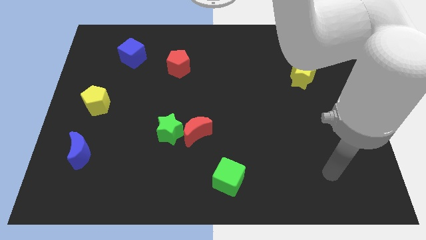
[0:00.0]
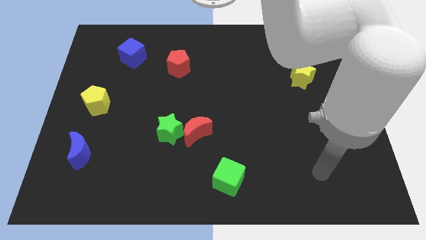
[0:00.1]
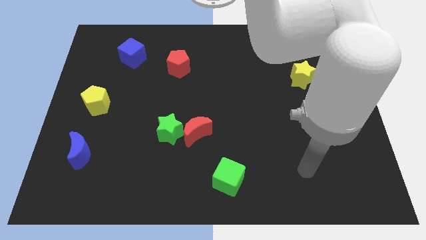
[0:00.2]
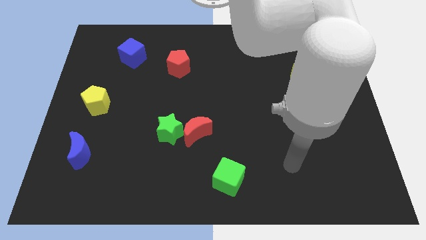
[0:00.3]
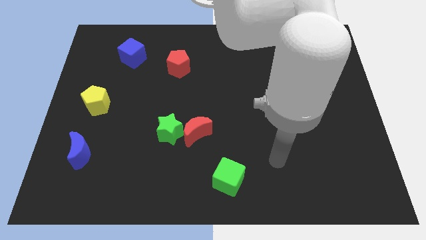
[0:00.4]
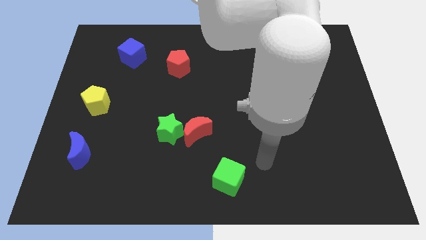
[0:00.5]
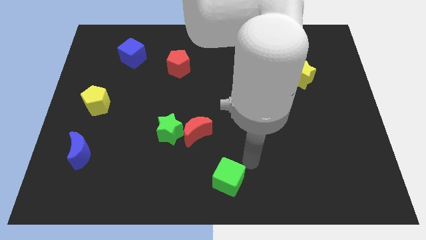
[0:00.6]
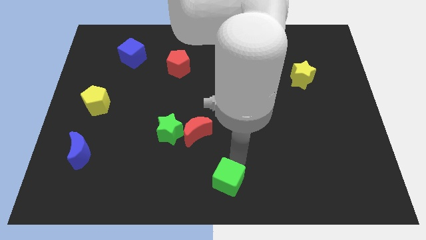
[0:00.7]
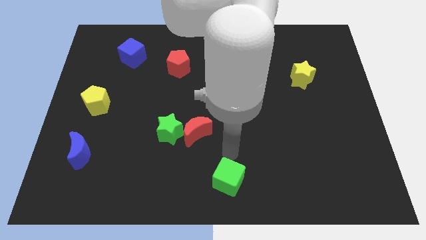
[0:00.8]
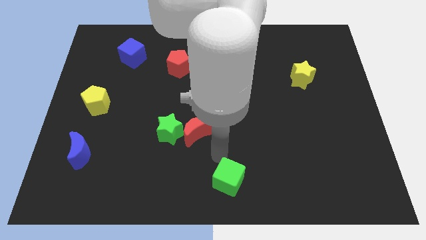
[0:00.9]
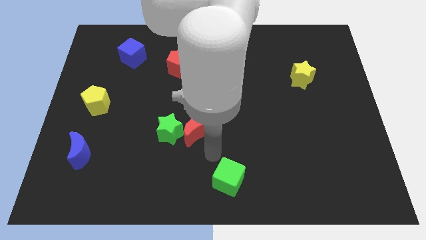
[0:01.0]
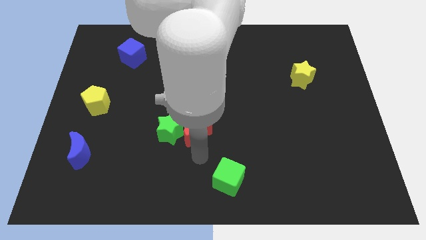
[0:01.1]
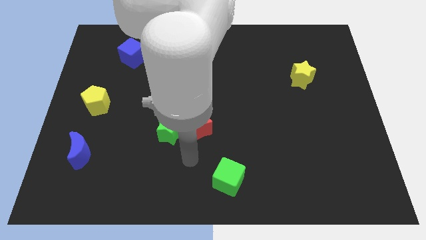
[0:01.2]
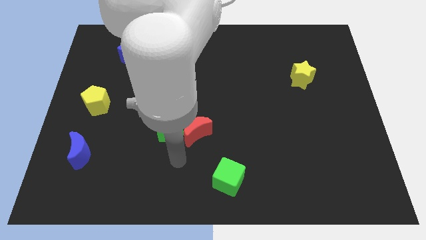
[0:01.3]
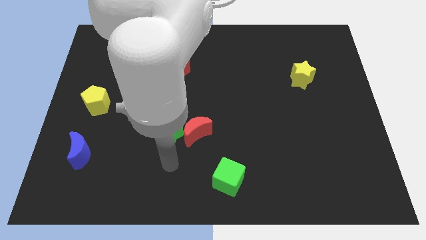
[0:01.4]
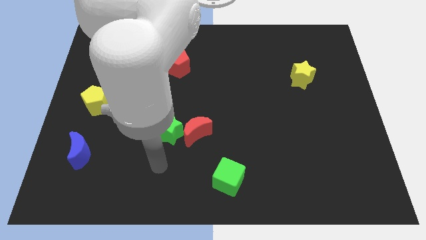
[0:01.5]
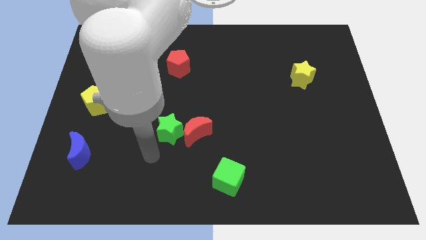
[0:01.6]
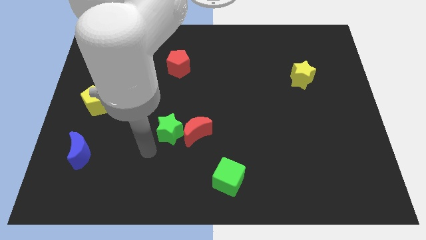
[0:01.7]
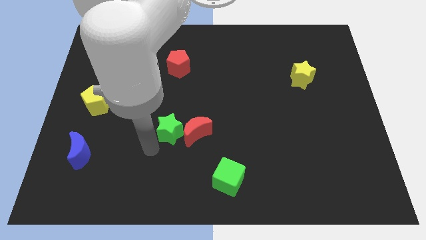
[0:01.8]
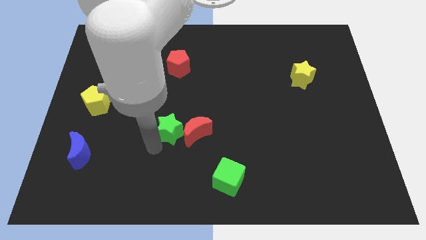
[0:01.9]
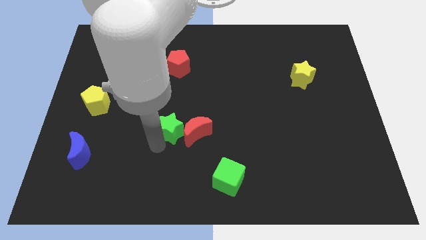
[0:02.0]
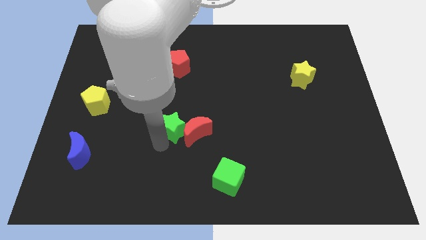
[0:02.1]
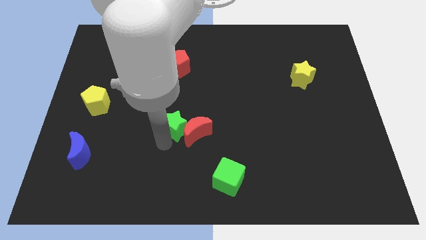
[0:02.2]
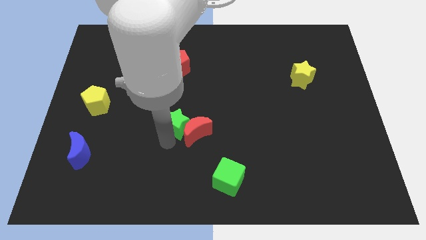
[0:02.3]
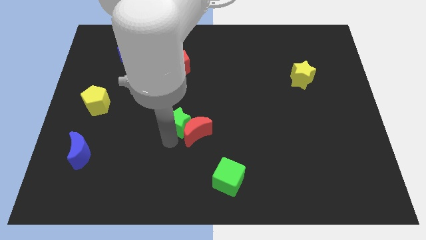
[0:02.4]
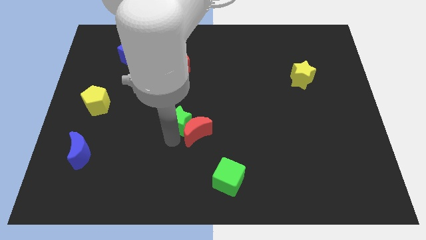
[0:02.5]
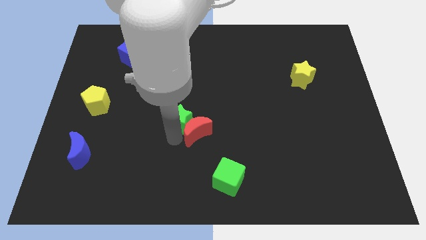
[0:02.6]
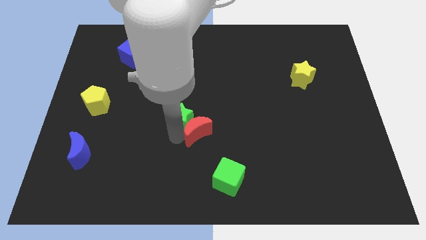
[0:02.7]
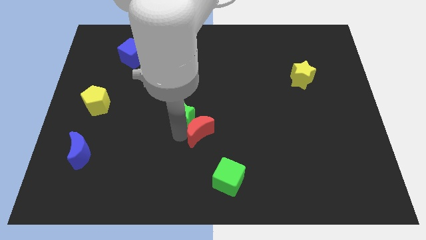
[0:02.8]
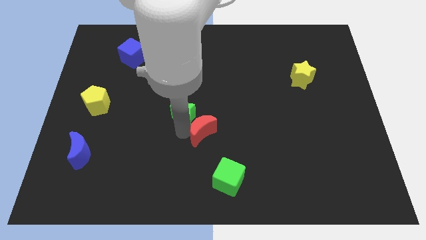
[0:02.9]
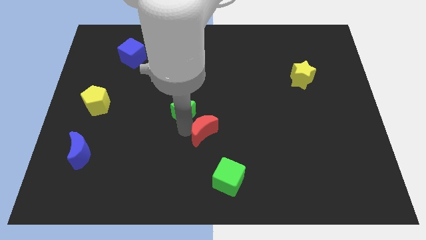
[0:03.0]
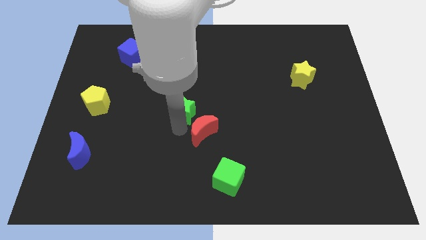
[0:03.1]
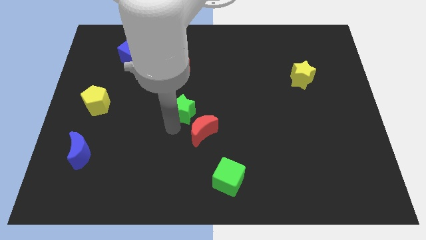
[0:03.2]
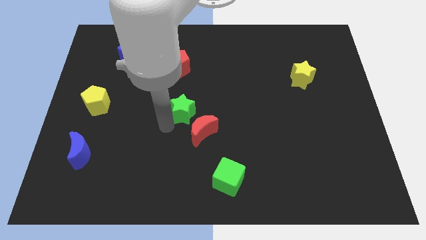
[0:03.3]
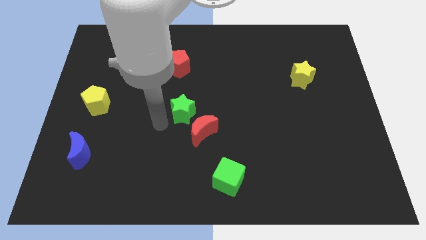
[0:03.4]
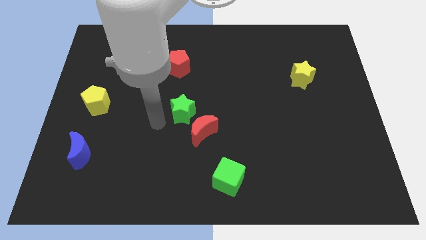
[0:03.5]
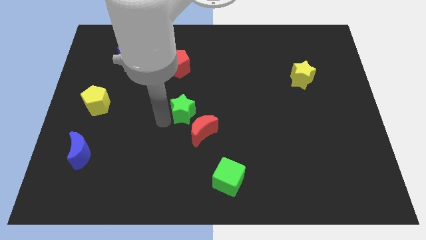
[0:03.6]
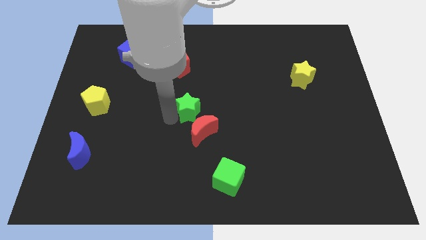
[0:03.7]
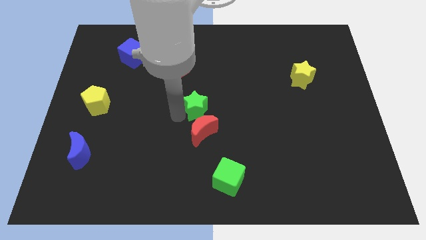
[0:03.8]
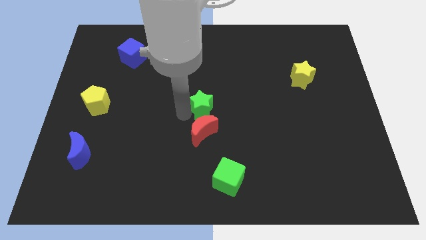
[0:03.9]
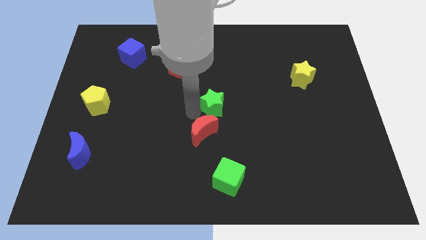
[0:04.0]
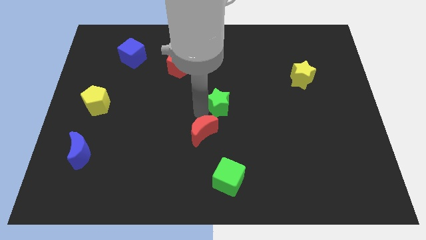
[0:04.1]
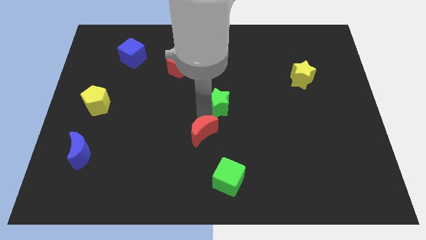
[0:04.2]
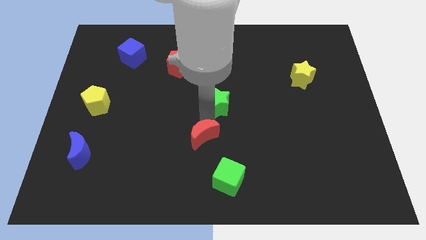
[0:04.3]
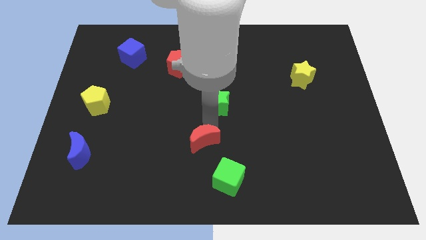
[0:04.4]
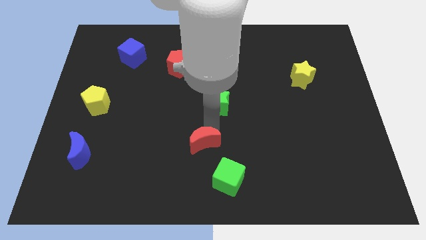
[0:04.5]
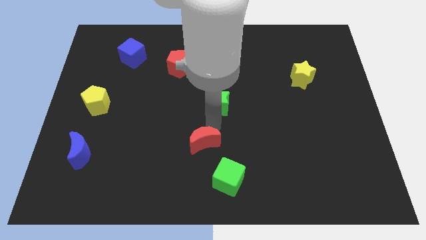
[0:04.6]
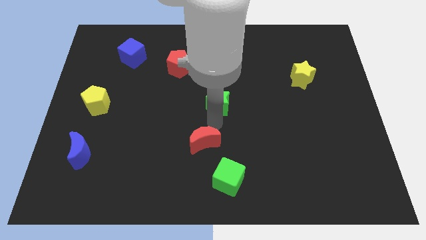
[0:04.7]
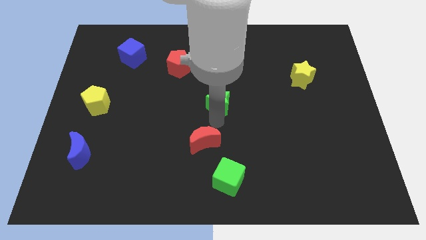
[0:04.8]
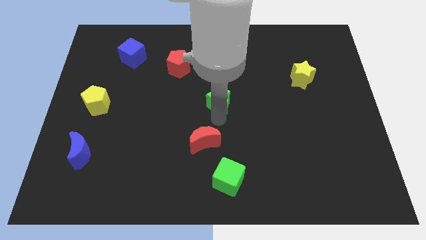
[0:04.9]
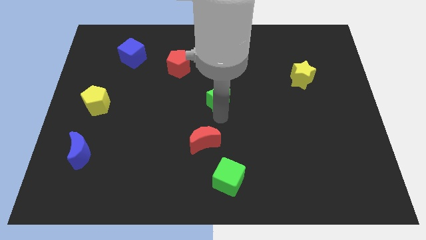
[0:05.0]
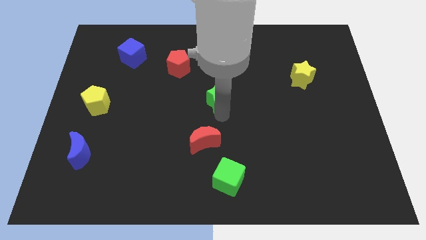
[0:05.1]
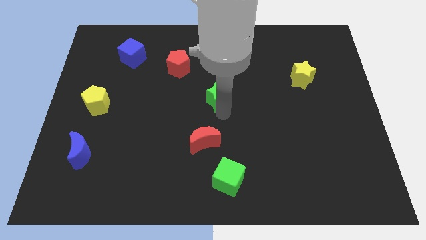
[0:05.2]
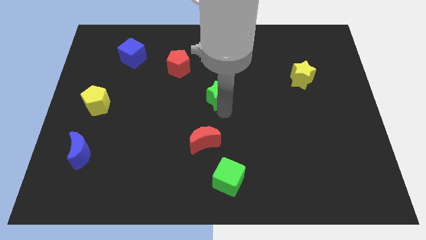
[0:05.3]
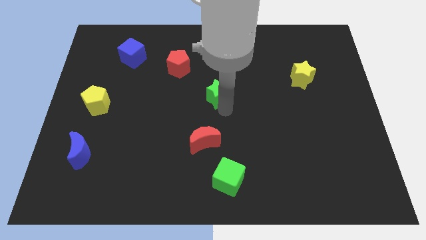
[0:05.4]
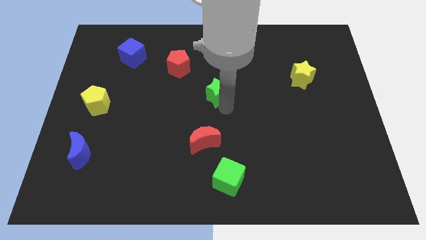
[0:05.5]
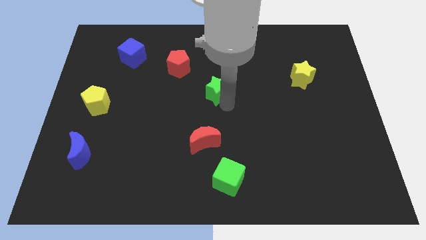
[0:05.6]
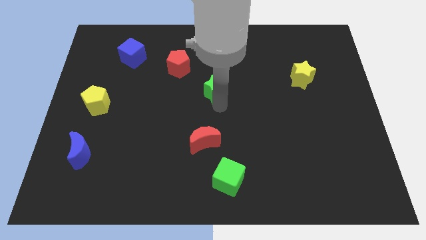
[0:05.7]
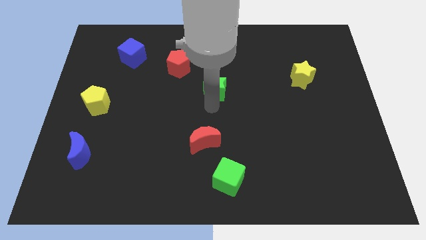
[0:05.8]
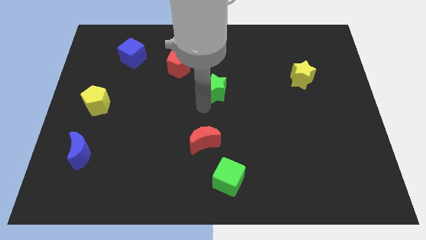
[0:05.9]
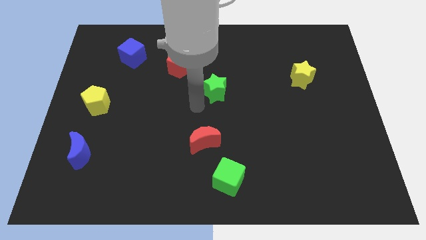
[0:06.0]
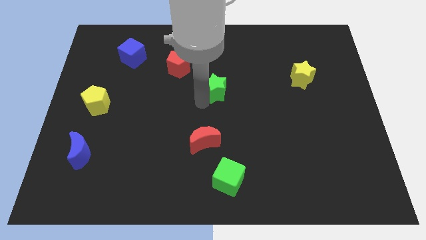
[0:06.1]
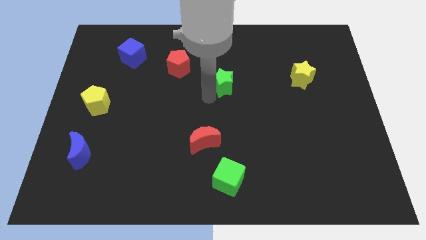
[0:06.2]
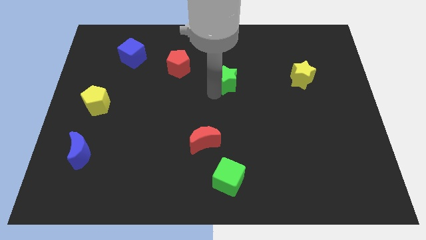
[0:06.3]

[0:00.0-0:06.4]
move the green star upwards and right

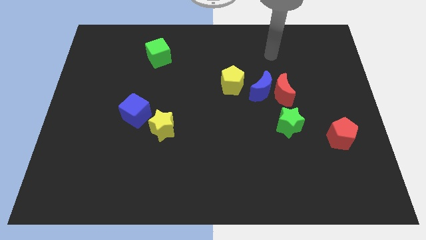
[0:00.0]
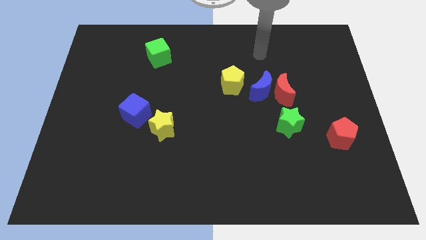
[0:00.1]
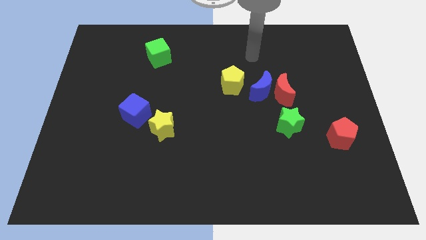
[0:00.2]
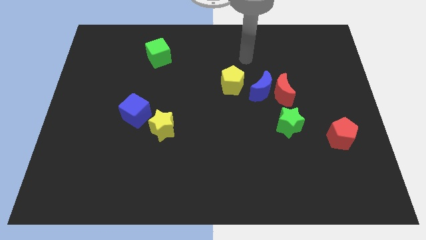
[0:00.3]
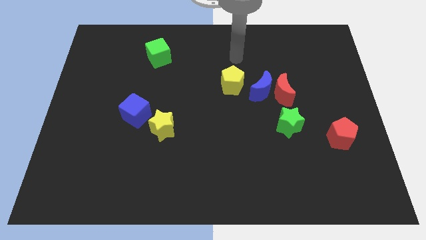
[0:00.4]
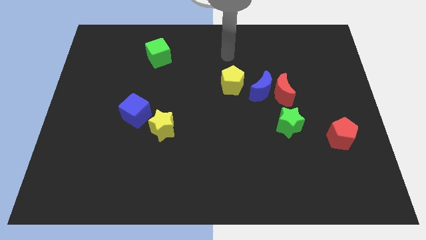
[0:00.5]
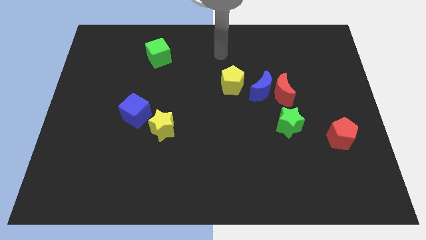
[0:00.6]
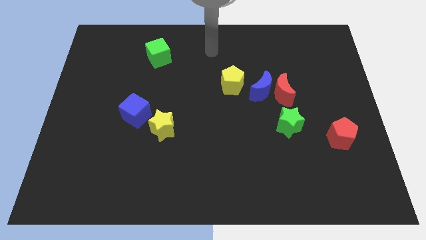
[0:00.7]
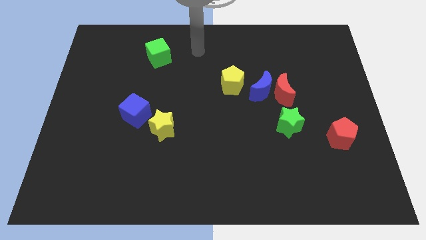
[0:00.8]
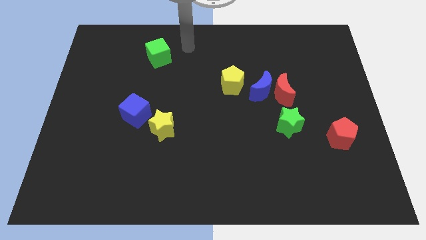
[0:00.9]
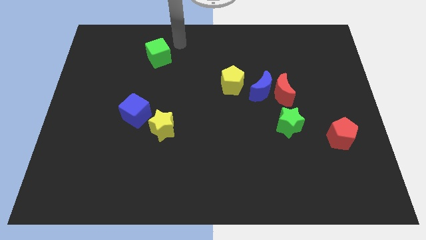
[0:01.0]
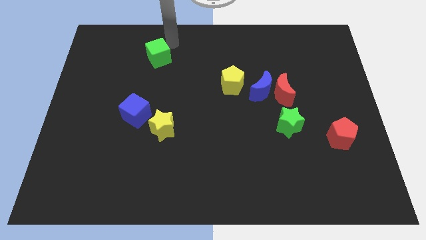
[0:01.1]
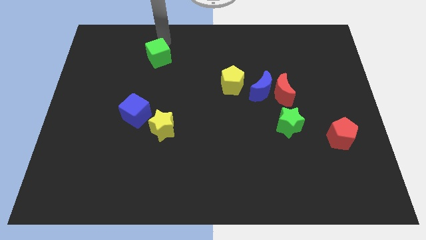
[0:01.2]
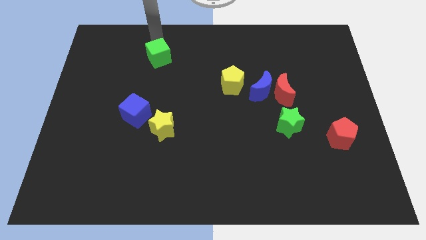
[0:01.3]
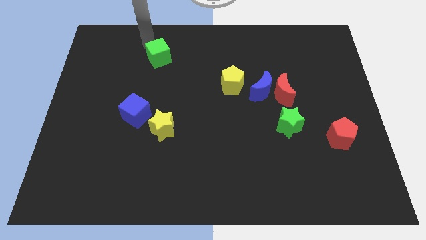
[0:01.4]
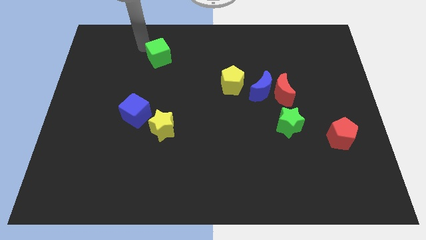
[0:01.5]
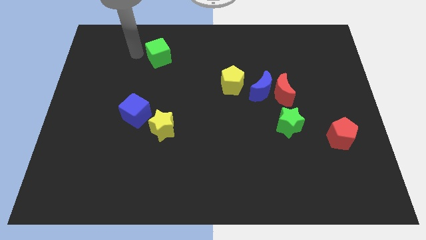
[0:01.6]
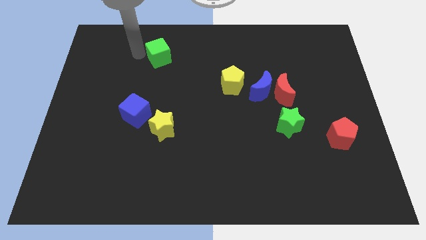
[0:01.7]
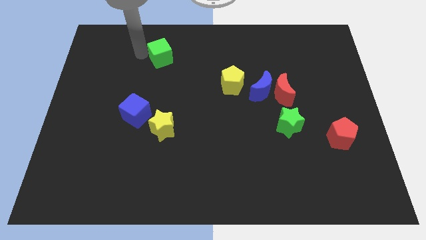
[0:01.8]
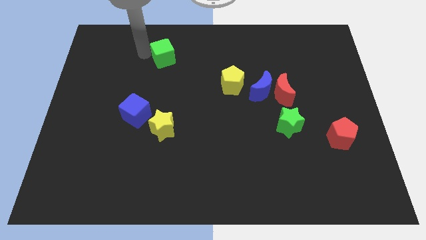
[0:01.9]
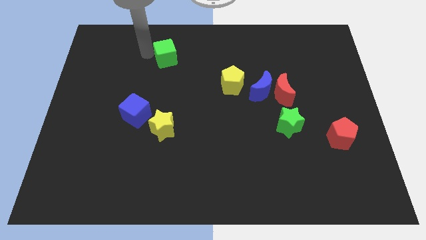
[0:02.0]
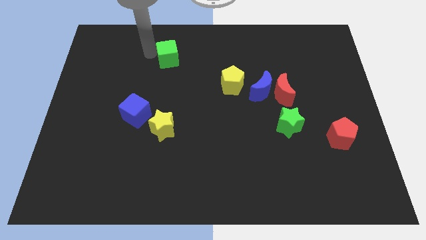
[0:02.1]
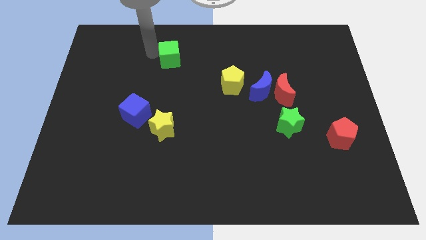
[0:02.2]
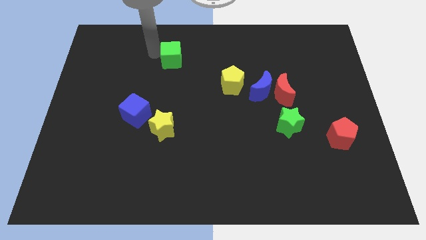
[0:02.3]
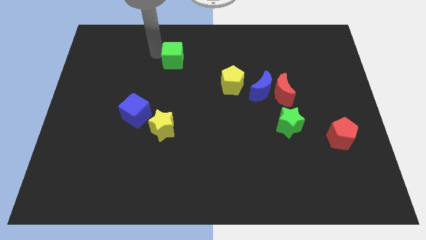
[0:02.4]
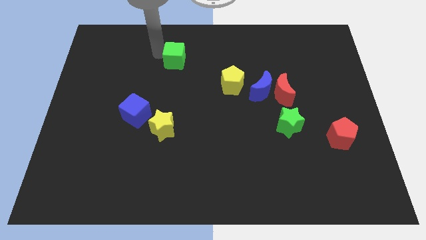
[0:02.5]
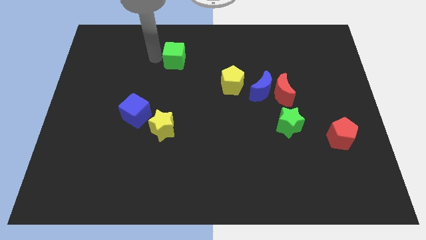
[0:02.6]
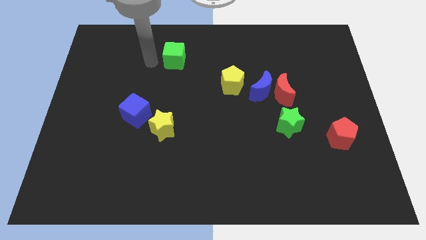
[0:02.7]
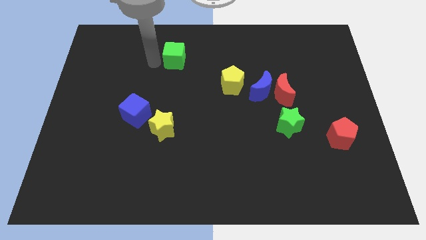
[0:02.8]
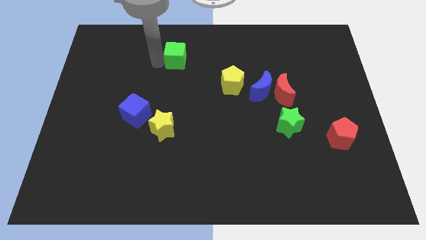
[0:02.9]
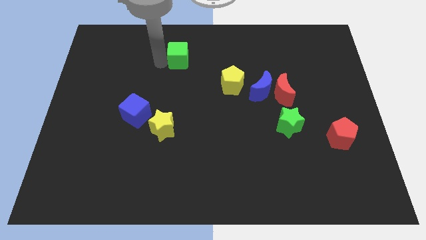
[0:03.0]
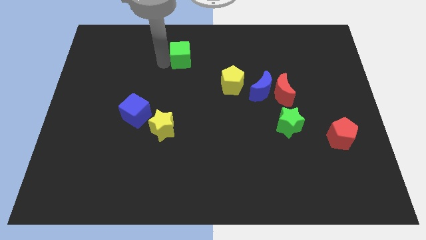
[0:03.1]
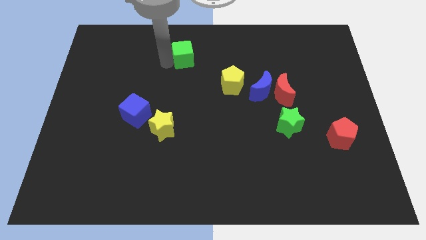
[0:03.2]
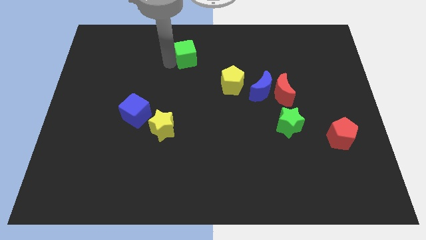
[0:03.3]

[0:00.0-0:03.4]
slightly move the green cube to the right
